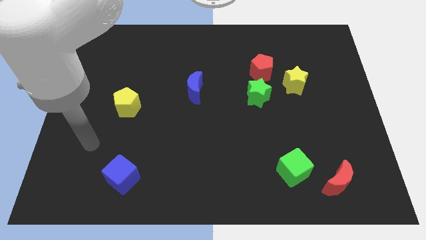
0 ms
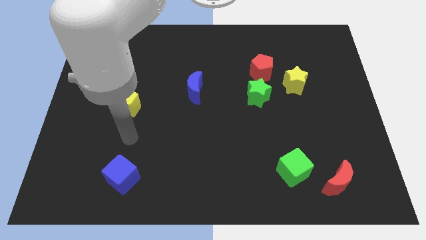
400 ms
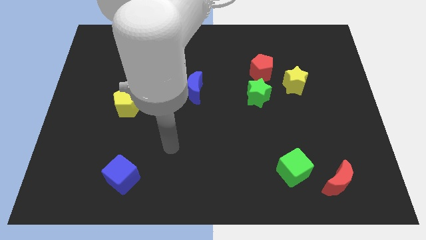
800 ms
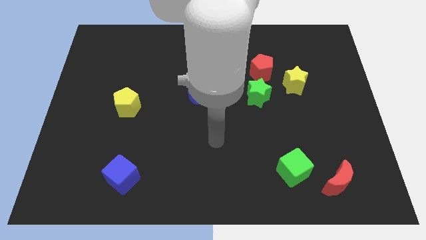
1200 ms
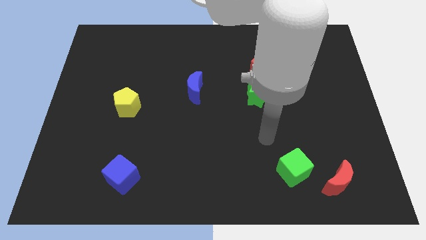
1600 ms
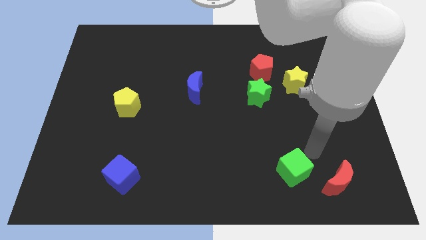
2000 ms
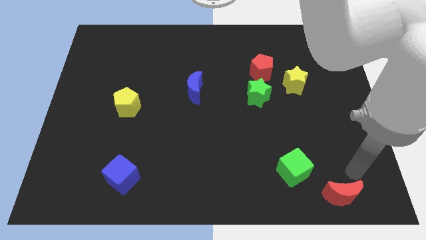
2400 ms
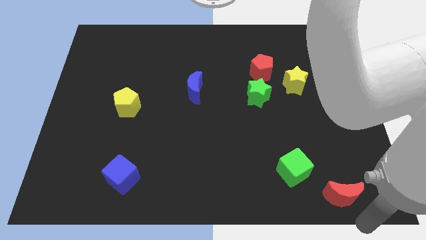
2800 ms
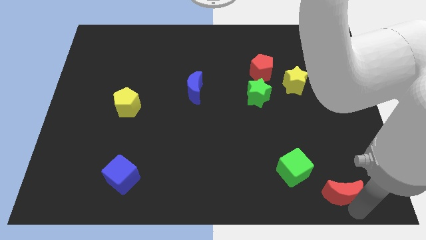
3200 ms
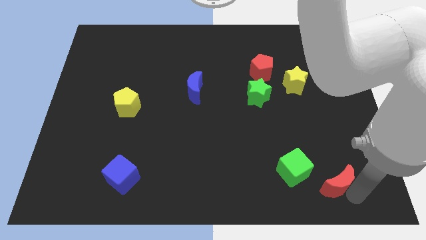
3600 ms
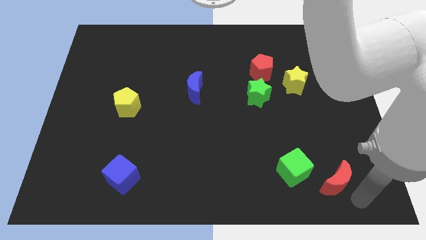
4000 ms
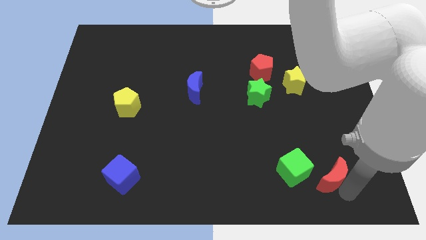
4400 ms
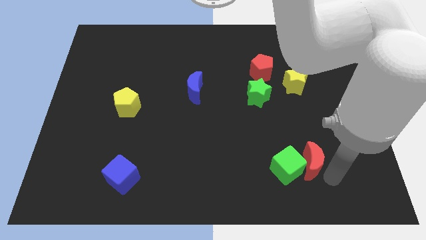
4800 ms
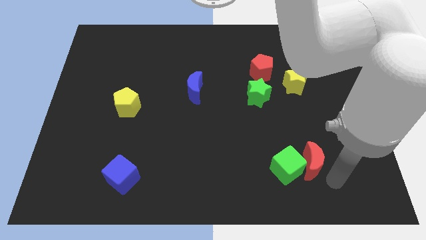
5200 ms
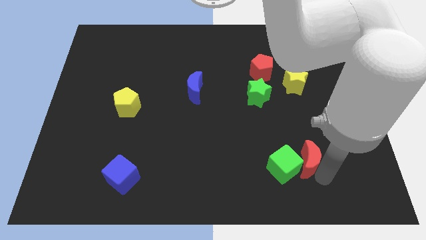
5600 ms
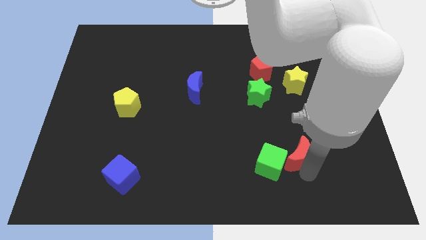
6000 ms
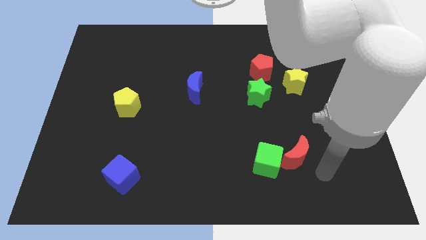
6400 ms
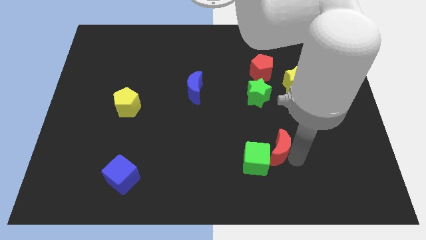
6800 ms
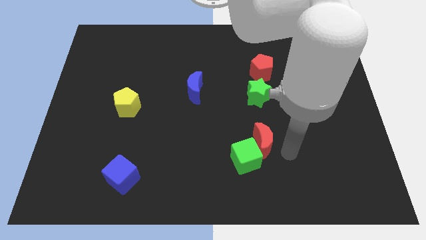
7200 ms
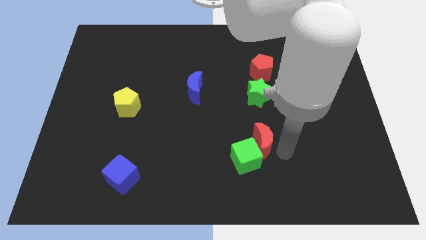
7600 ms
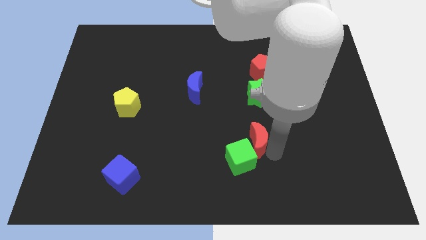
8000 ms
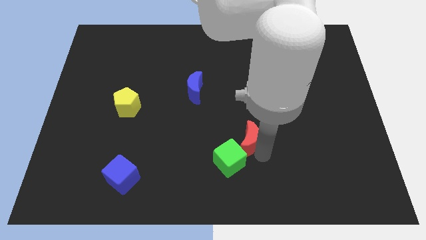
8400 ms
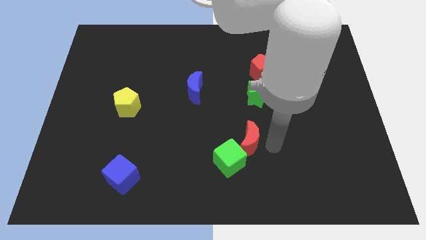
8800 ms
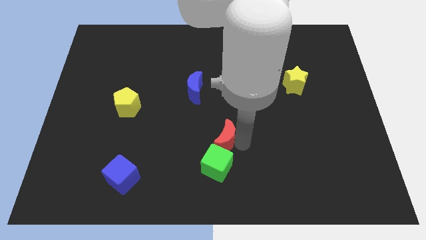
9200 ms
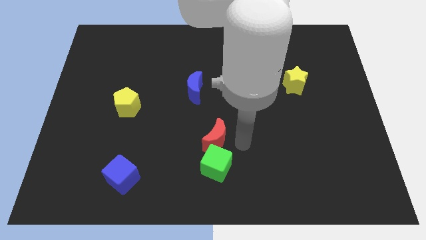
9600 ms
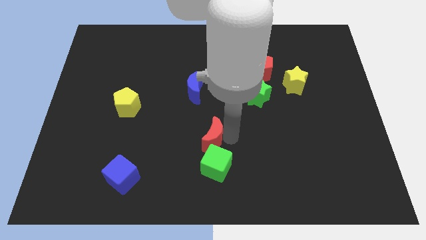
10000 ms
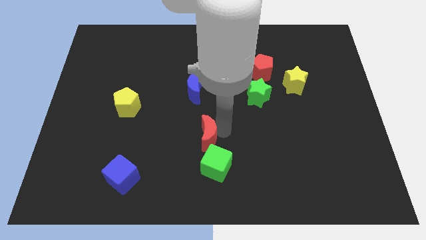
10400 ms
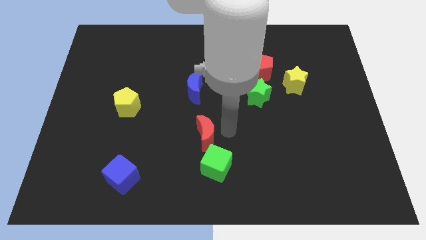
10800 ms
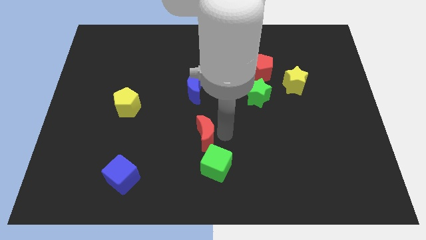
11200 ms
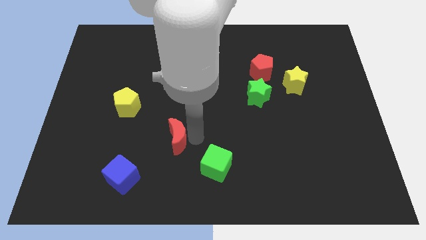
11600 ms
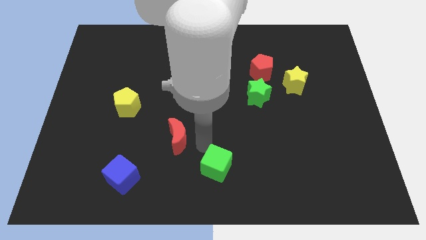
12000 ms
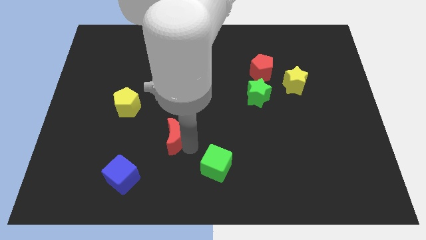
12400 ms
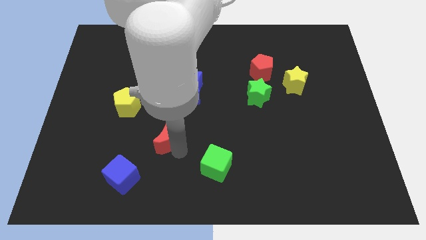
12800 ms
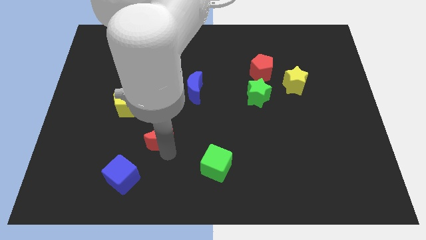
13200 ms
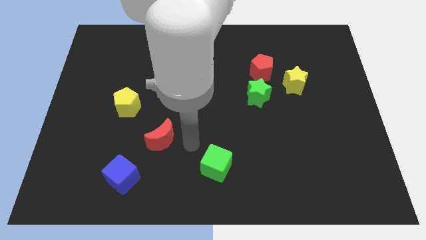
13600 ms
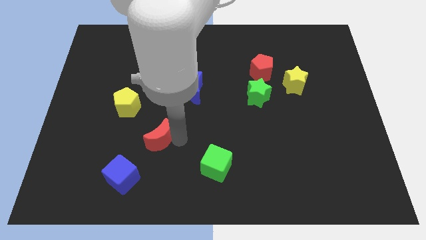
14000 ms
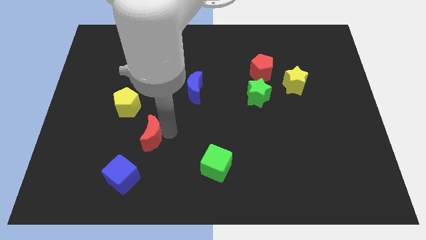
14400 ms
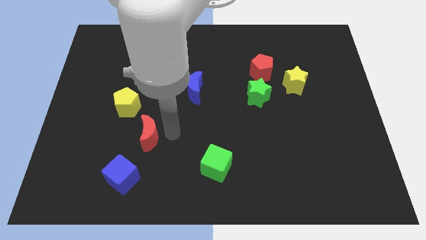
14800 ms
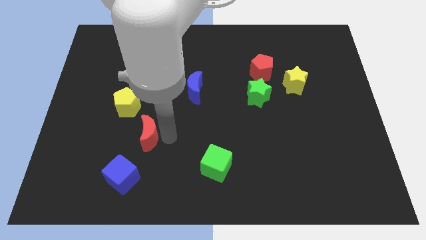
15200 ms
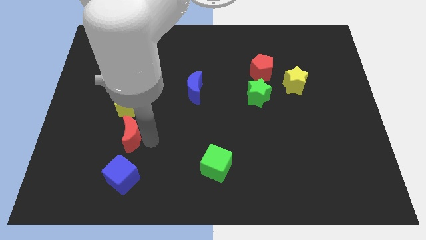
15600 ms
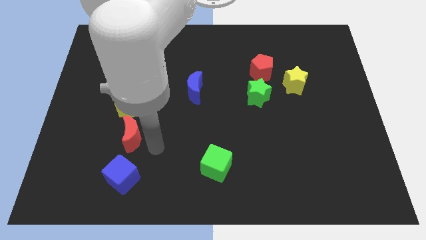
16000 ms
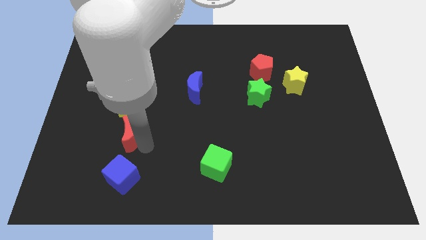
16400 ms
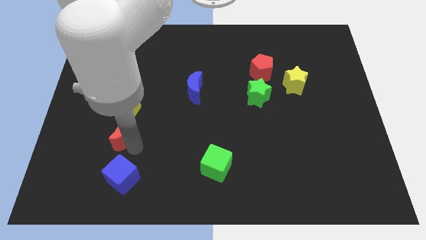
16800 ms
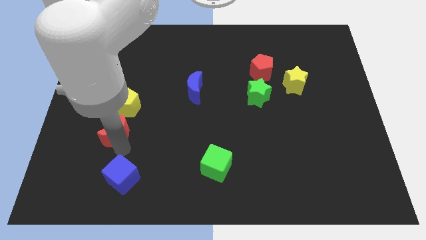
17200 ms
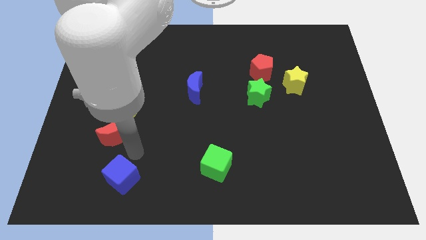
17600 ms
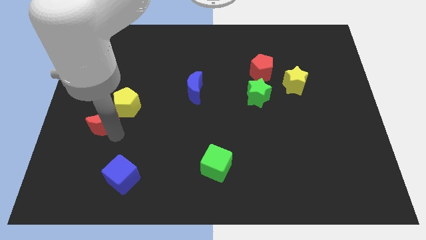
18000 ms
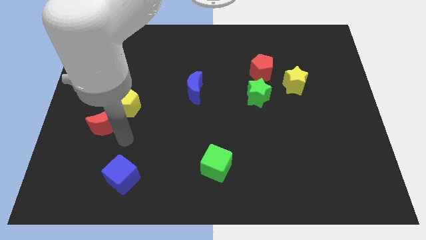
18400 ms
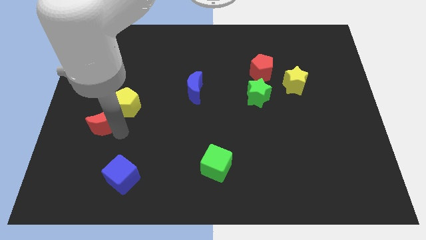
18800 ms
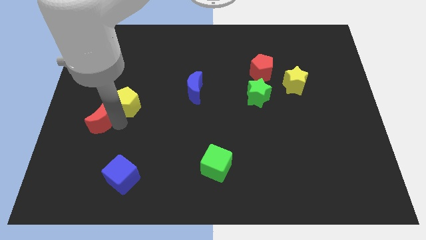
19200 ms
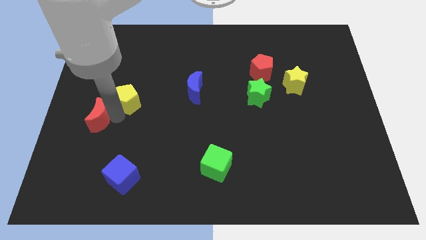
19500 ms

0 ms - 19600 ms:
slide the red moon to the left side

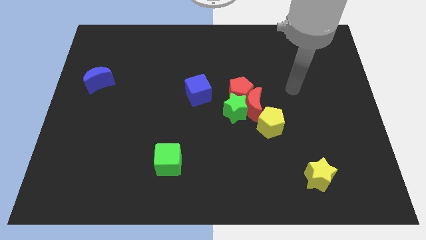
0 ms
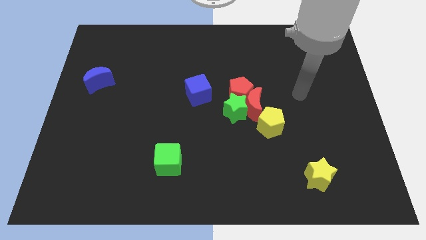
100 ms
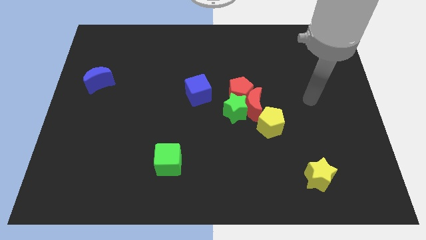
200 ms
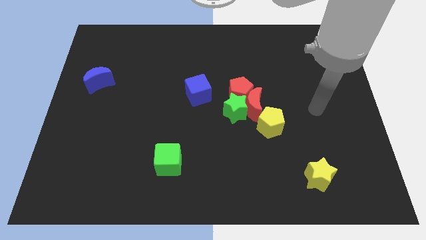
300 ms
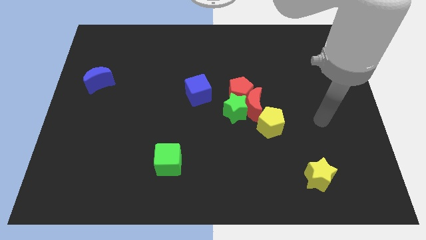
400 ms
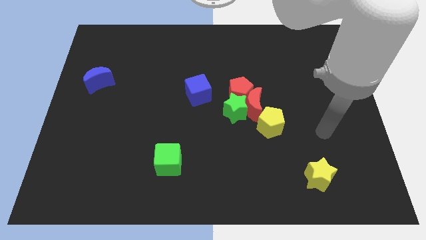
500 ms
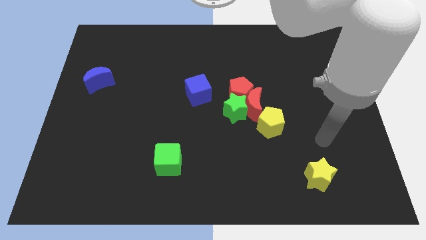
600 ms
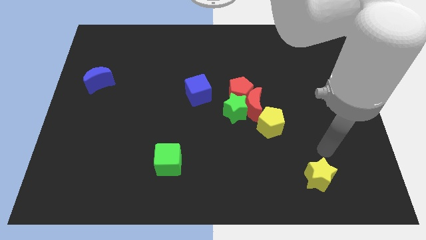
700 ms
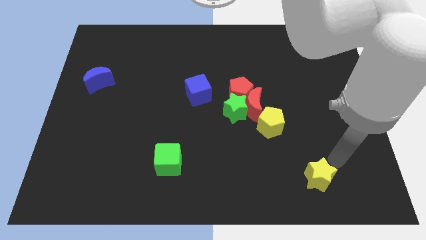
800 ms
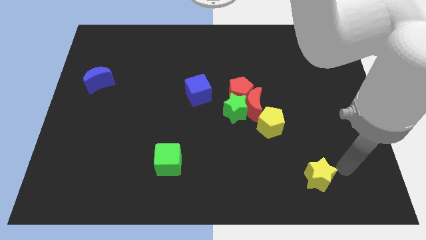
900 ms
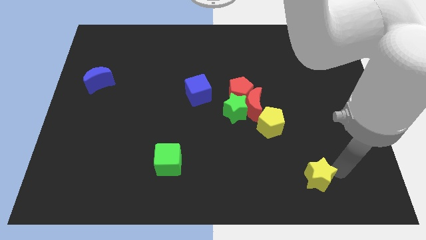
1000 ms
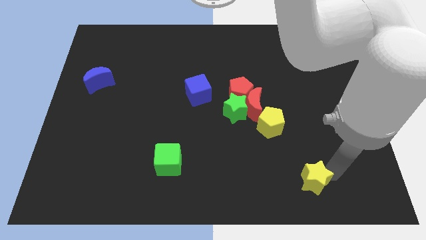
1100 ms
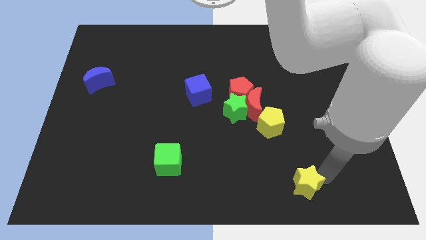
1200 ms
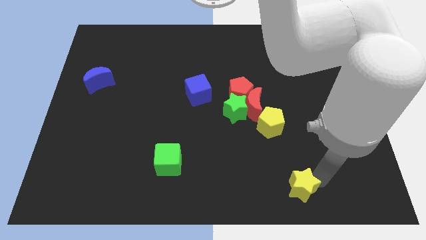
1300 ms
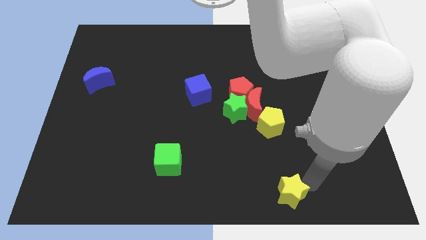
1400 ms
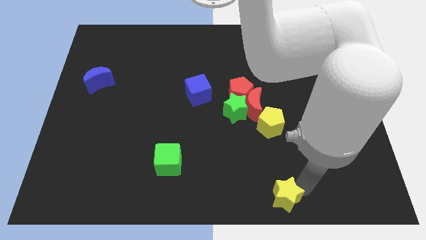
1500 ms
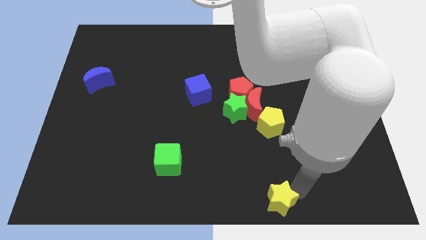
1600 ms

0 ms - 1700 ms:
push the yellow star to the bottom
